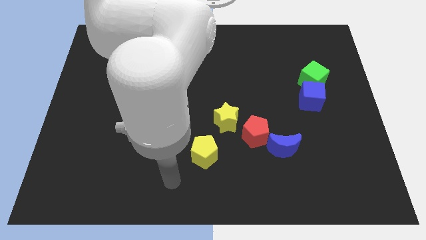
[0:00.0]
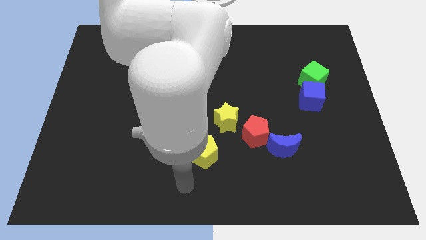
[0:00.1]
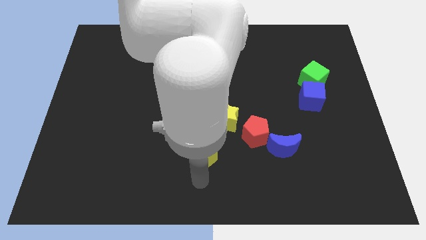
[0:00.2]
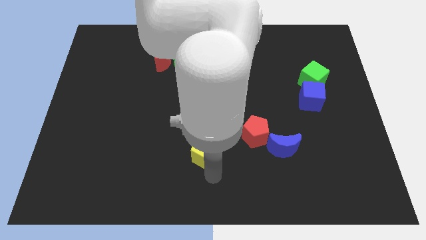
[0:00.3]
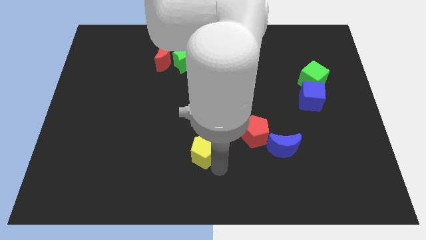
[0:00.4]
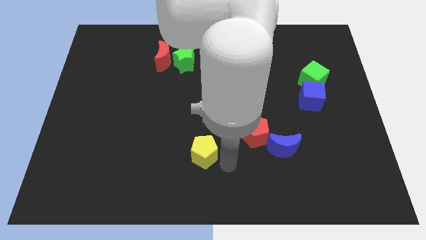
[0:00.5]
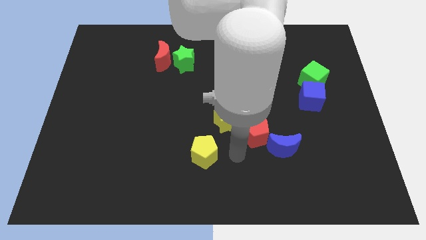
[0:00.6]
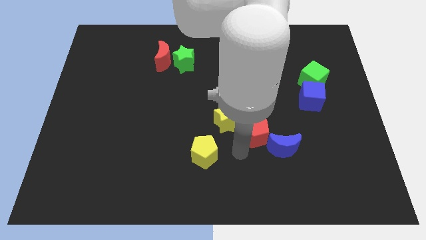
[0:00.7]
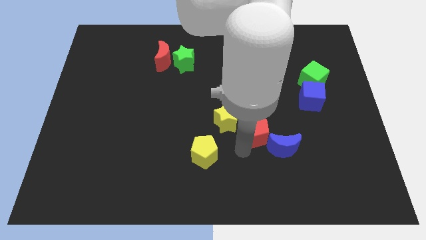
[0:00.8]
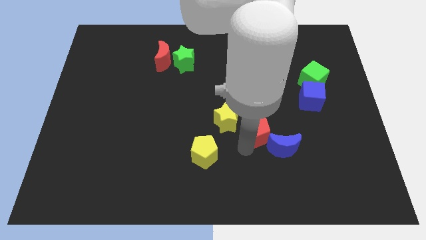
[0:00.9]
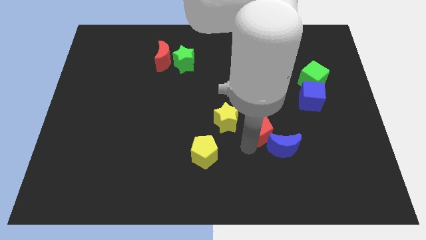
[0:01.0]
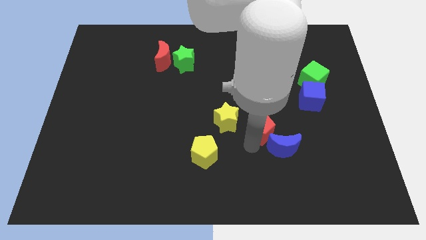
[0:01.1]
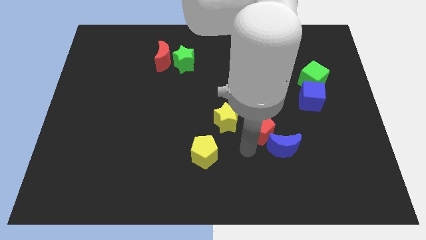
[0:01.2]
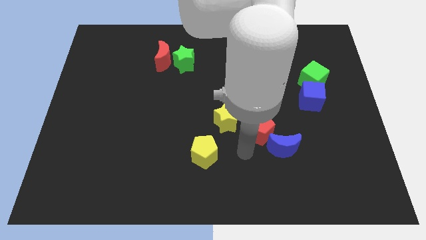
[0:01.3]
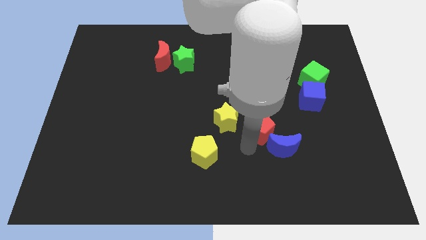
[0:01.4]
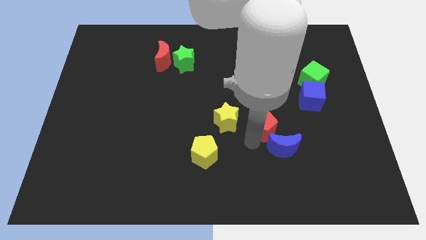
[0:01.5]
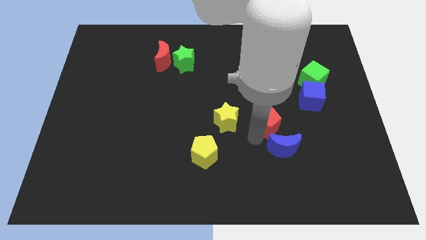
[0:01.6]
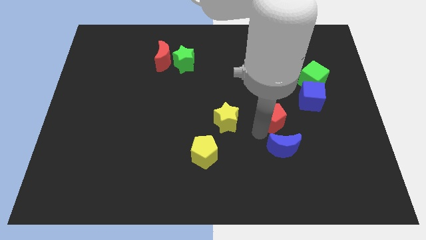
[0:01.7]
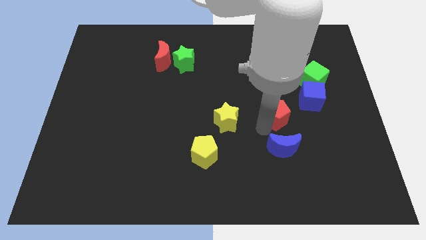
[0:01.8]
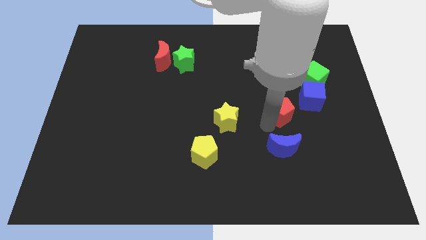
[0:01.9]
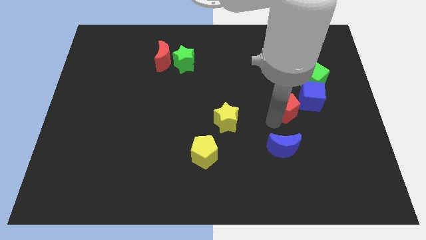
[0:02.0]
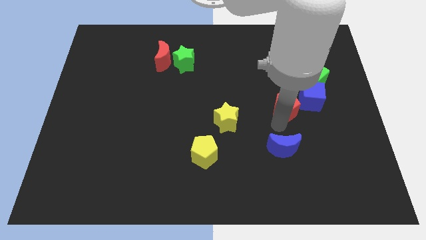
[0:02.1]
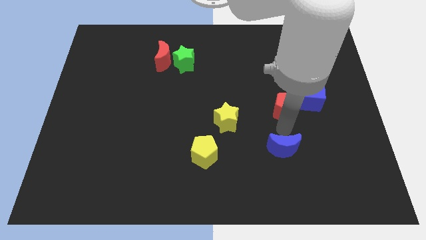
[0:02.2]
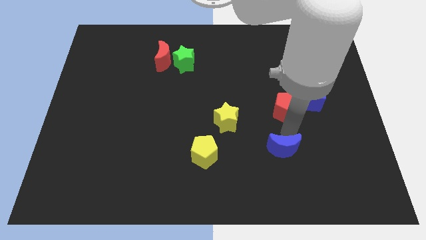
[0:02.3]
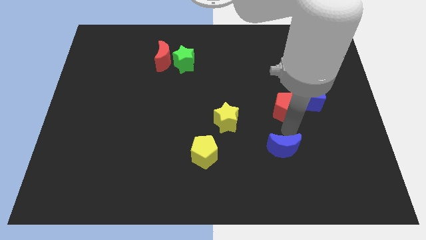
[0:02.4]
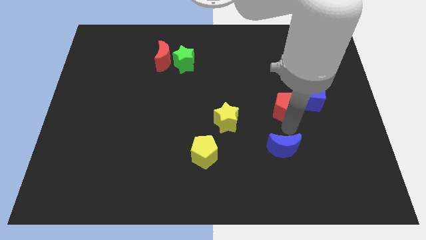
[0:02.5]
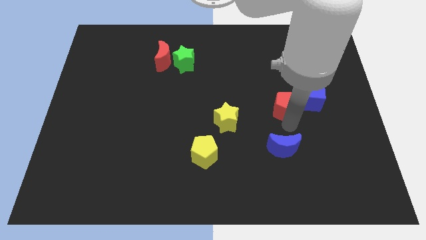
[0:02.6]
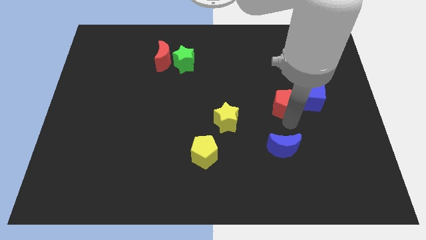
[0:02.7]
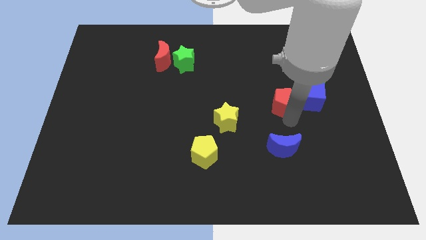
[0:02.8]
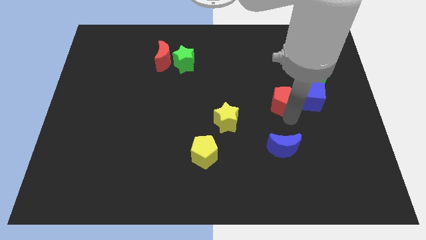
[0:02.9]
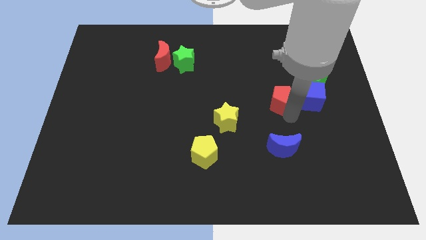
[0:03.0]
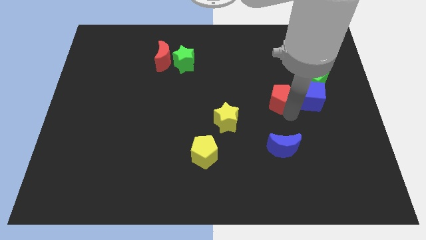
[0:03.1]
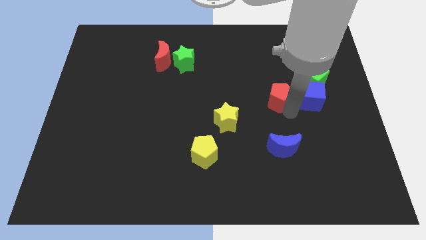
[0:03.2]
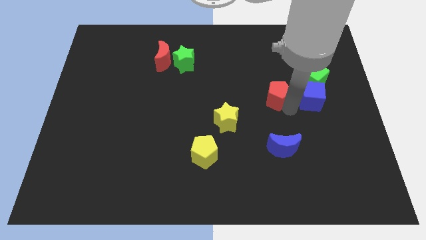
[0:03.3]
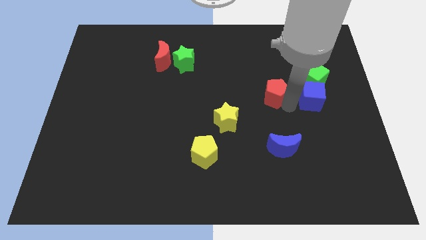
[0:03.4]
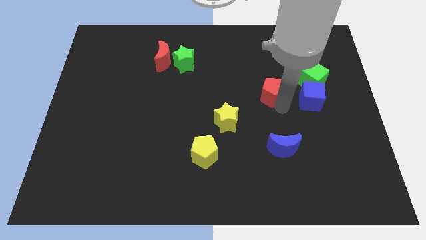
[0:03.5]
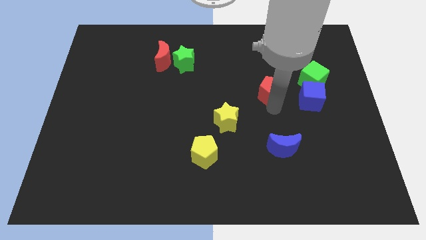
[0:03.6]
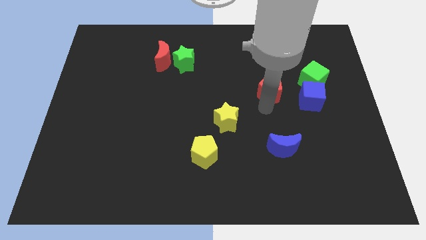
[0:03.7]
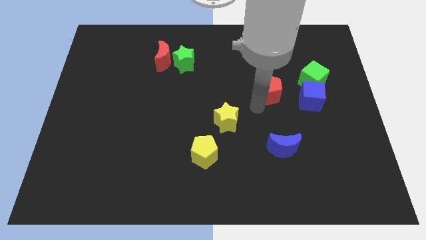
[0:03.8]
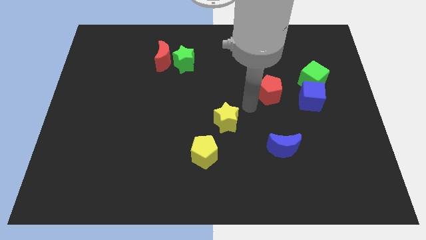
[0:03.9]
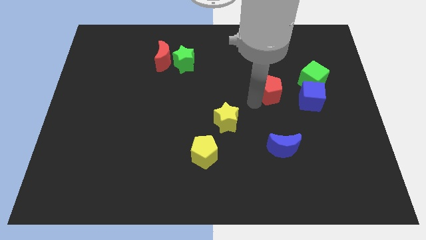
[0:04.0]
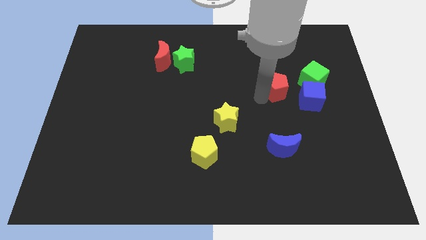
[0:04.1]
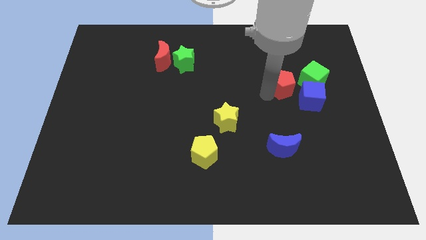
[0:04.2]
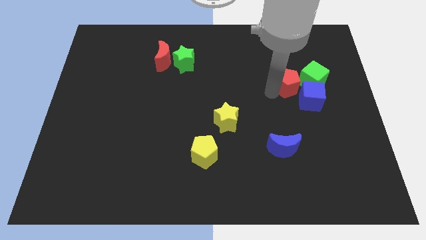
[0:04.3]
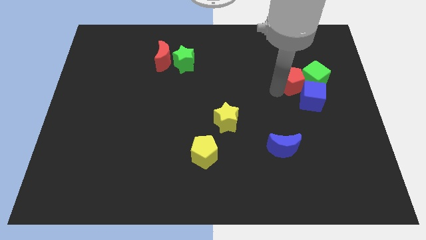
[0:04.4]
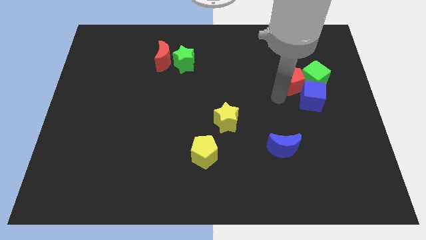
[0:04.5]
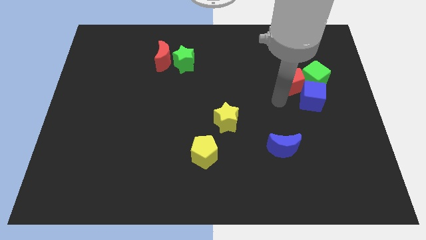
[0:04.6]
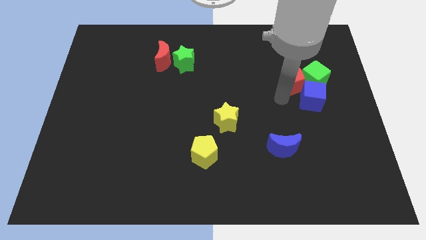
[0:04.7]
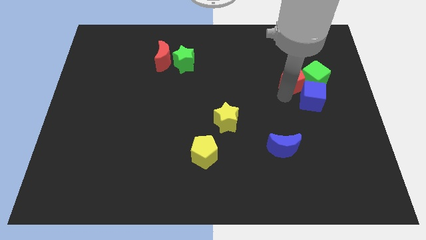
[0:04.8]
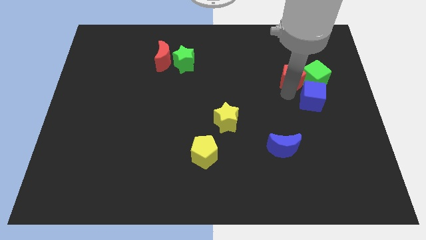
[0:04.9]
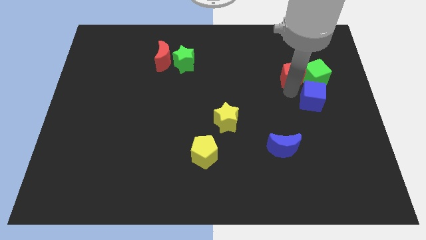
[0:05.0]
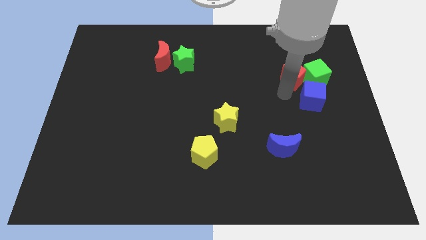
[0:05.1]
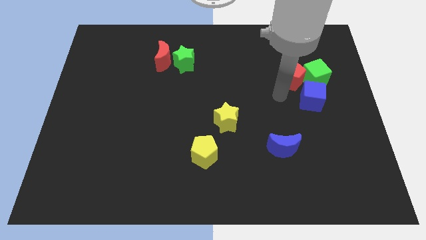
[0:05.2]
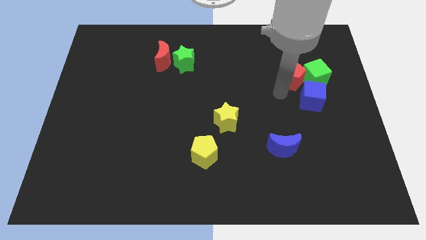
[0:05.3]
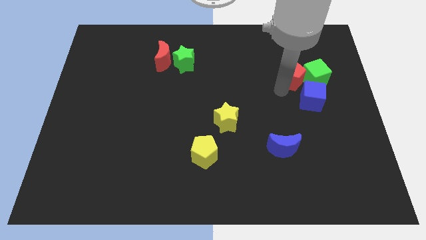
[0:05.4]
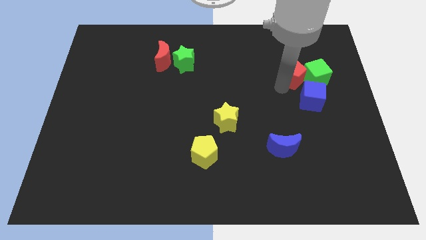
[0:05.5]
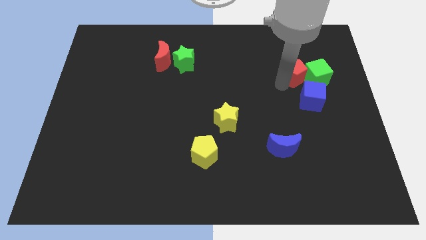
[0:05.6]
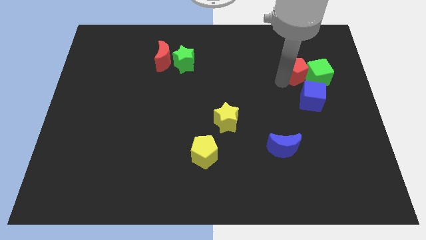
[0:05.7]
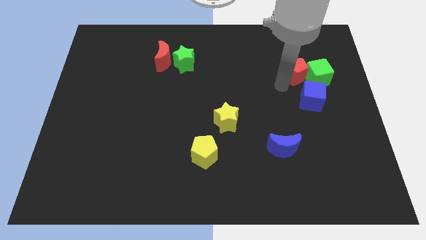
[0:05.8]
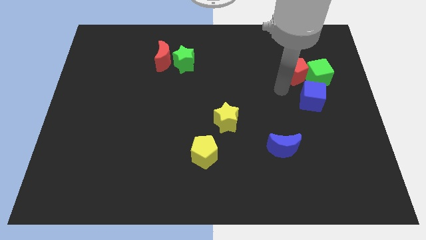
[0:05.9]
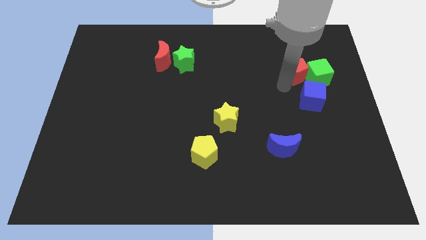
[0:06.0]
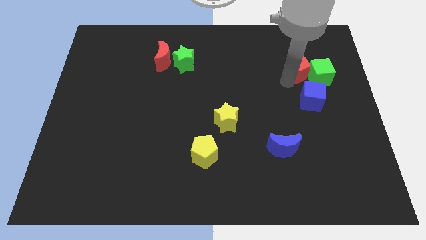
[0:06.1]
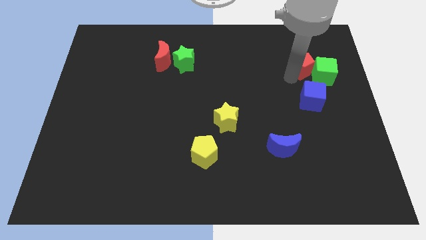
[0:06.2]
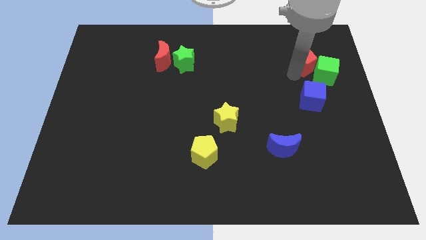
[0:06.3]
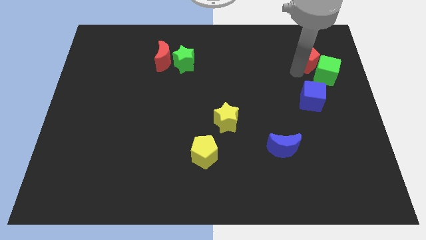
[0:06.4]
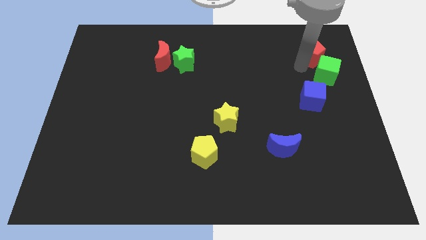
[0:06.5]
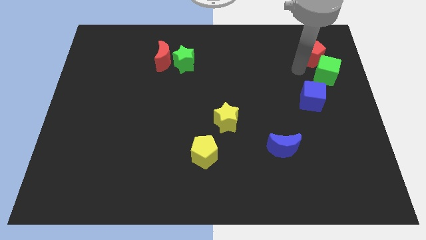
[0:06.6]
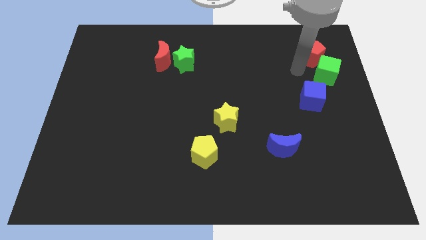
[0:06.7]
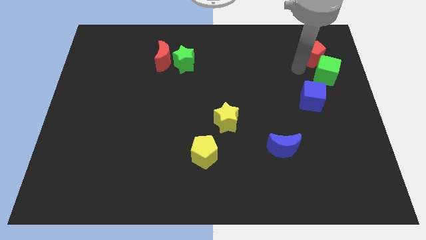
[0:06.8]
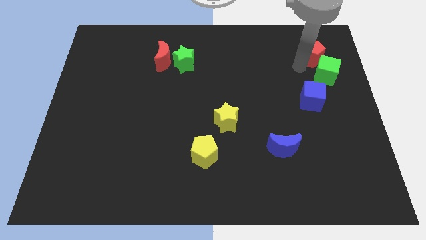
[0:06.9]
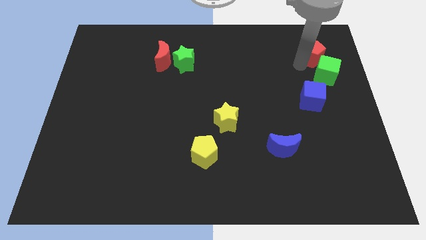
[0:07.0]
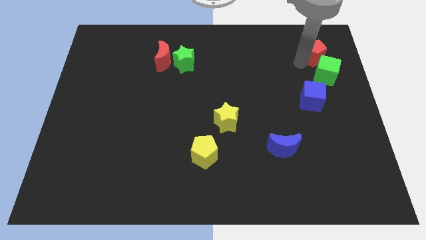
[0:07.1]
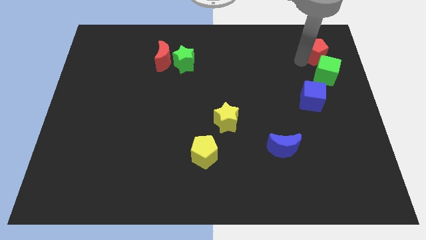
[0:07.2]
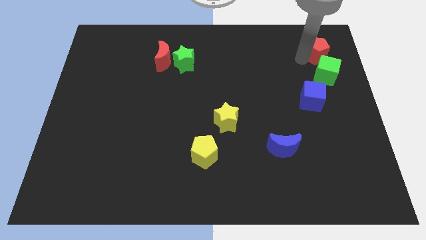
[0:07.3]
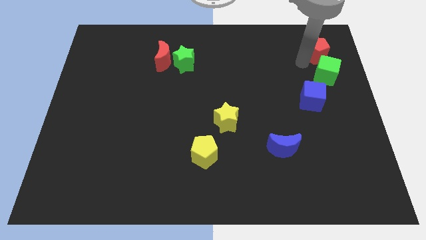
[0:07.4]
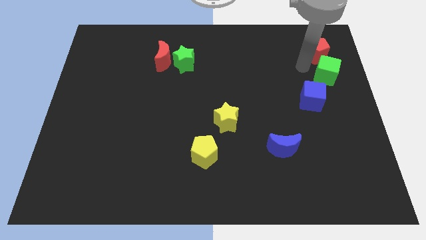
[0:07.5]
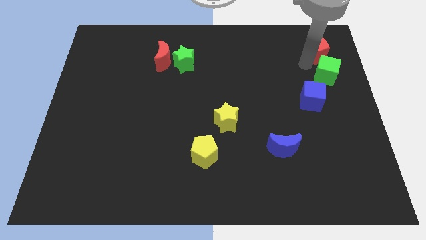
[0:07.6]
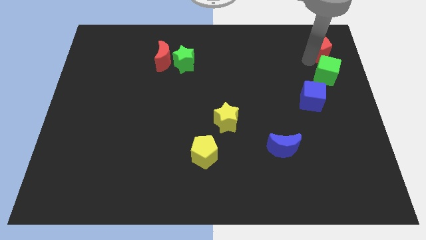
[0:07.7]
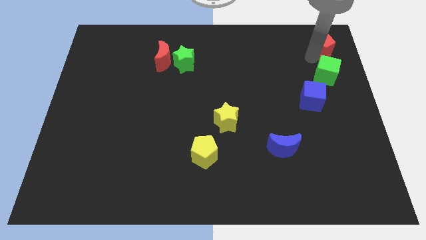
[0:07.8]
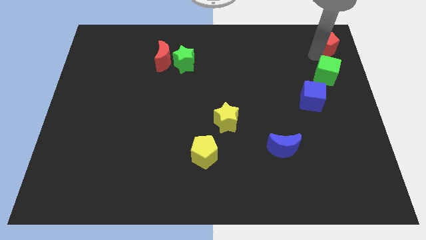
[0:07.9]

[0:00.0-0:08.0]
put the red pentagon to the upper right corner
